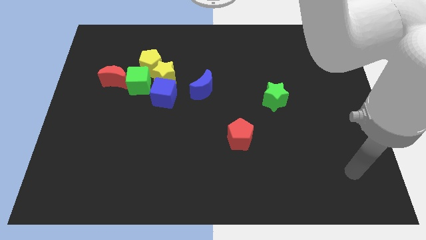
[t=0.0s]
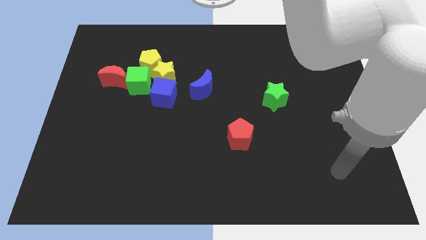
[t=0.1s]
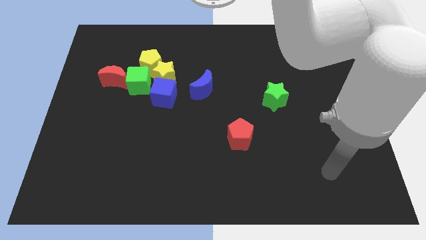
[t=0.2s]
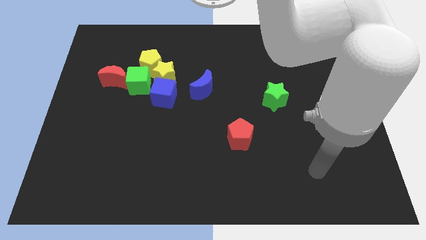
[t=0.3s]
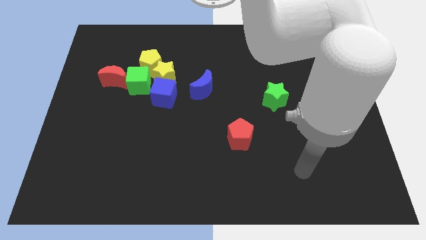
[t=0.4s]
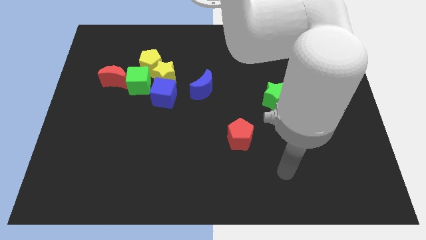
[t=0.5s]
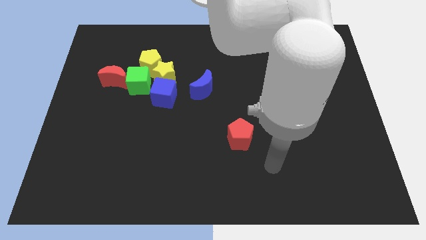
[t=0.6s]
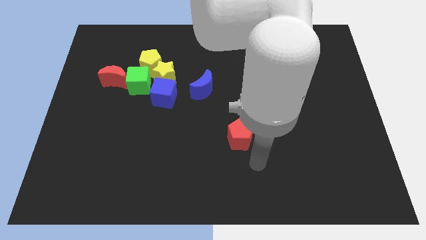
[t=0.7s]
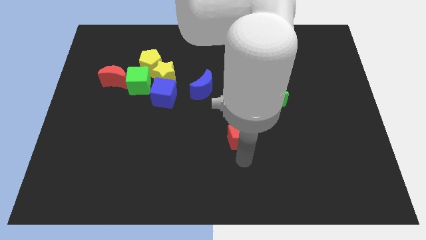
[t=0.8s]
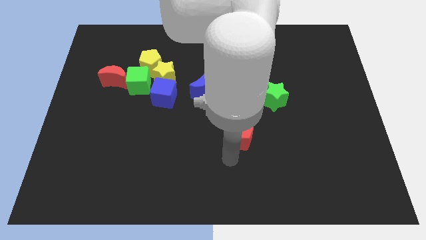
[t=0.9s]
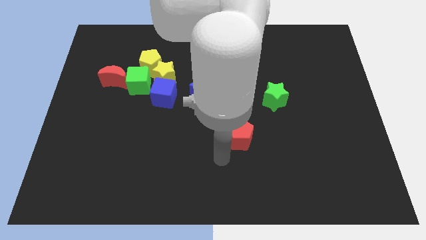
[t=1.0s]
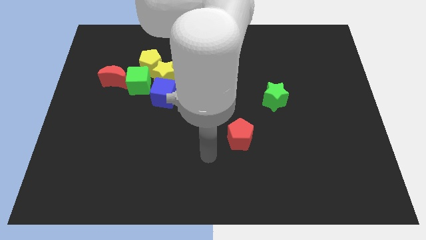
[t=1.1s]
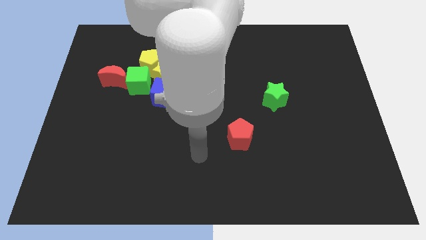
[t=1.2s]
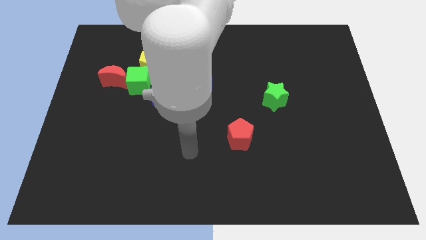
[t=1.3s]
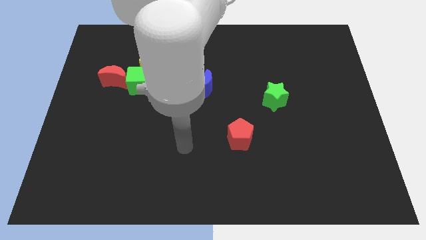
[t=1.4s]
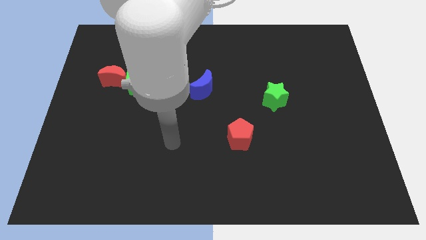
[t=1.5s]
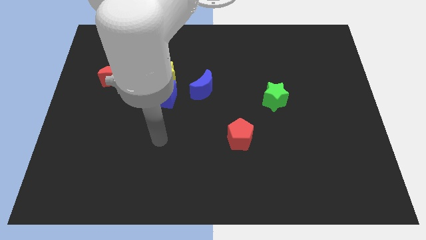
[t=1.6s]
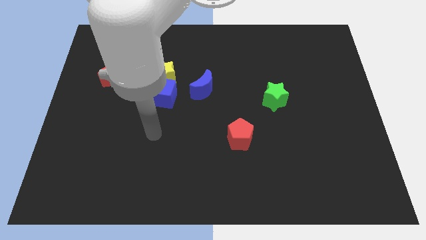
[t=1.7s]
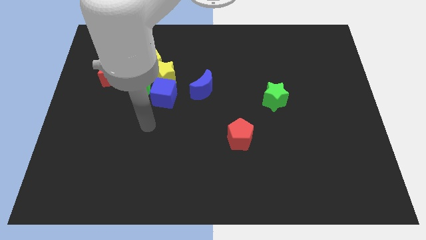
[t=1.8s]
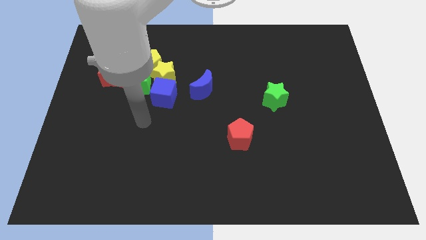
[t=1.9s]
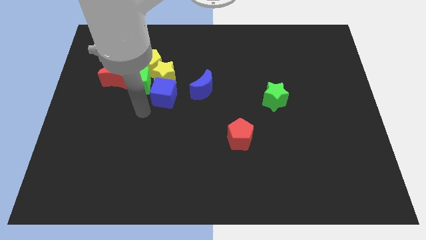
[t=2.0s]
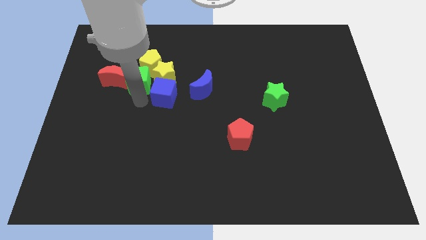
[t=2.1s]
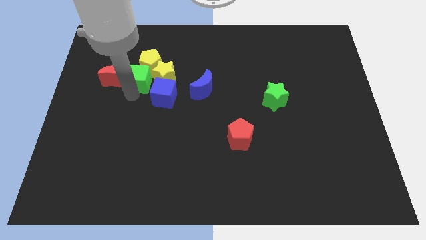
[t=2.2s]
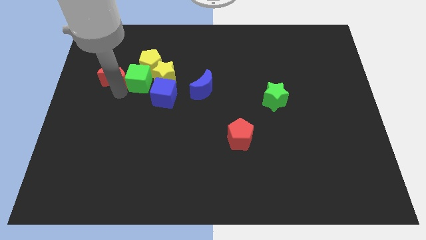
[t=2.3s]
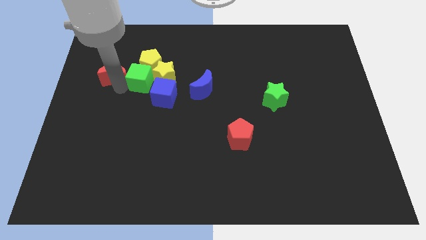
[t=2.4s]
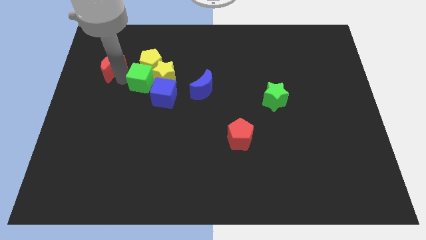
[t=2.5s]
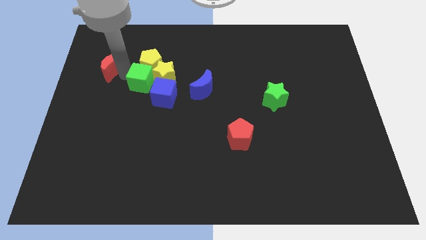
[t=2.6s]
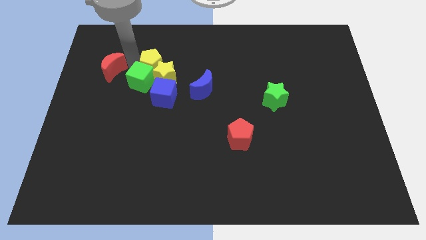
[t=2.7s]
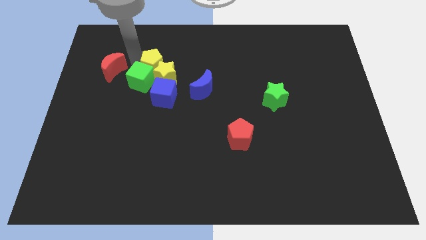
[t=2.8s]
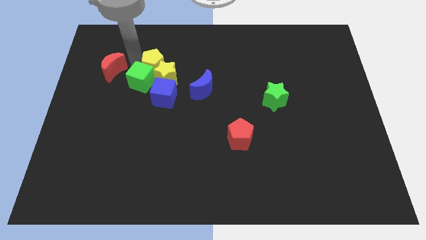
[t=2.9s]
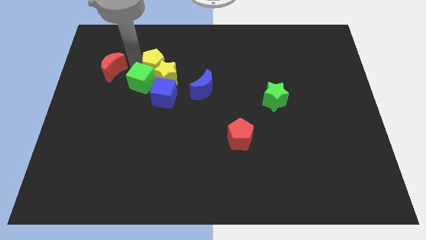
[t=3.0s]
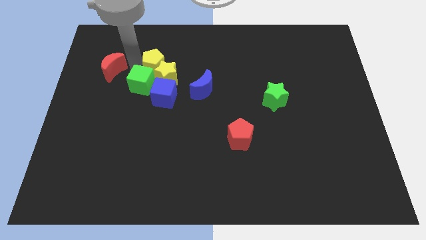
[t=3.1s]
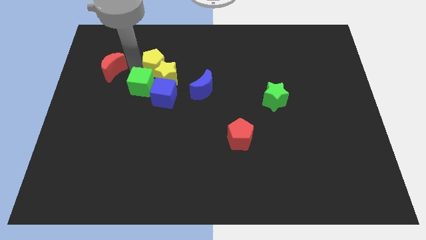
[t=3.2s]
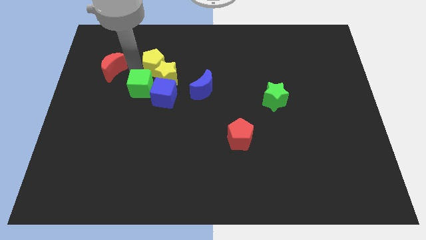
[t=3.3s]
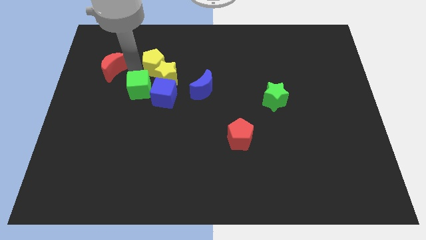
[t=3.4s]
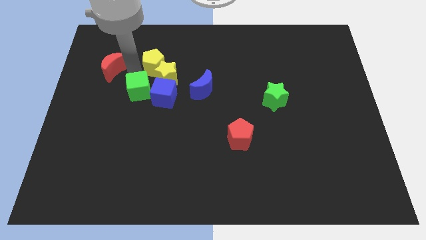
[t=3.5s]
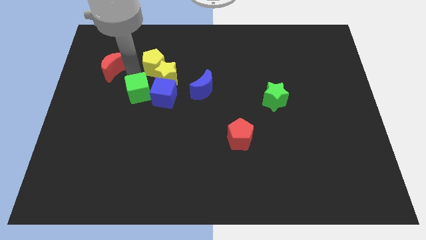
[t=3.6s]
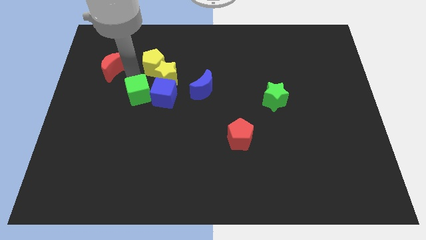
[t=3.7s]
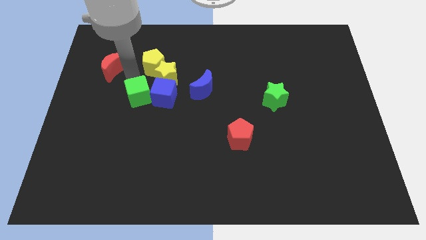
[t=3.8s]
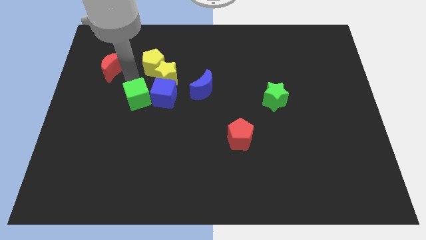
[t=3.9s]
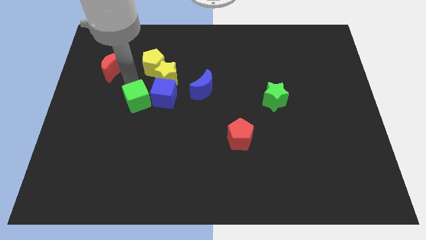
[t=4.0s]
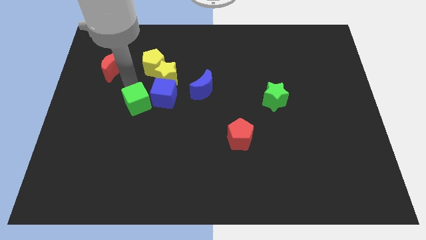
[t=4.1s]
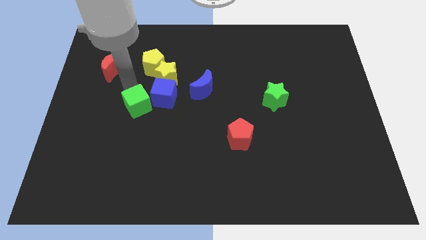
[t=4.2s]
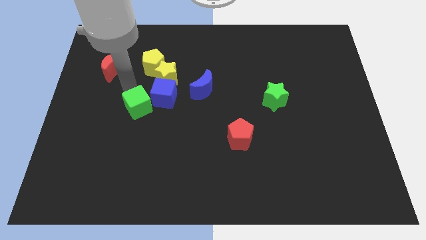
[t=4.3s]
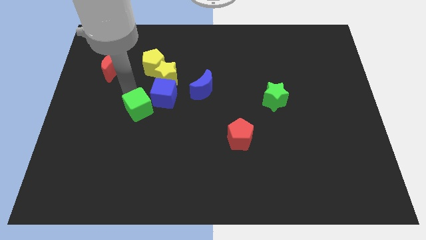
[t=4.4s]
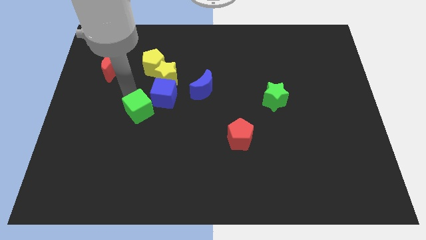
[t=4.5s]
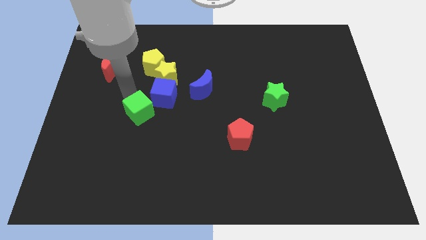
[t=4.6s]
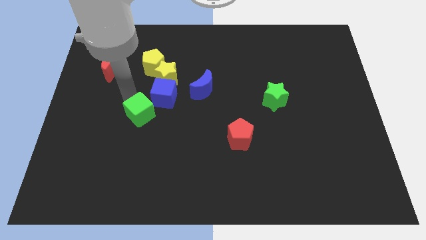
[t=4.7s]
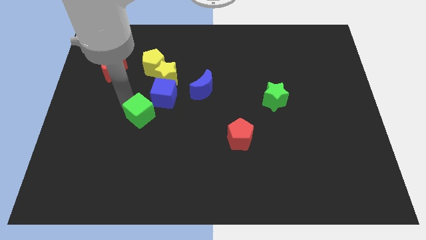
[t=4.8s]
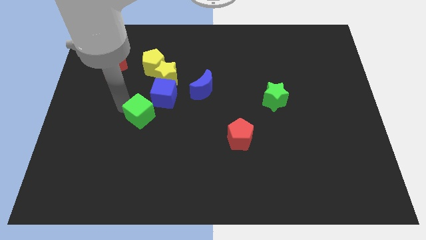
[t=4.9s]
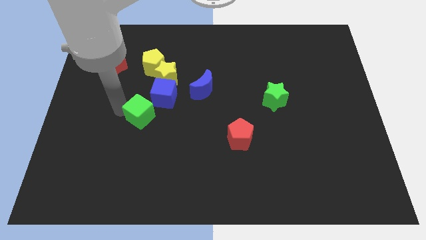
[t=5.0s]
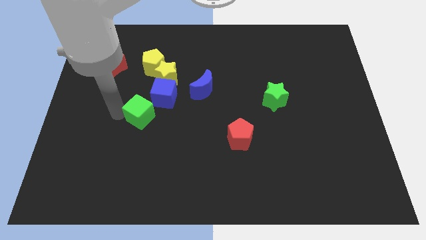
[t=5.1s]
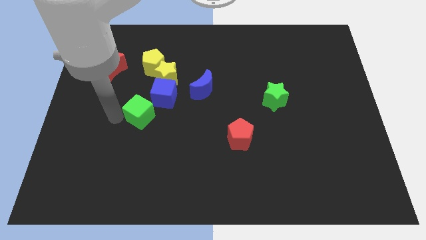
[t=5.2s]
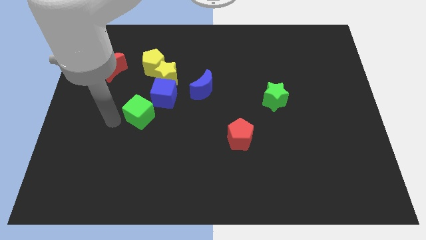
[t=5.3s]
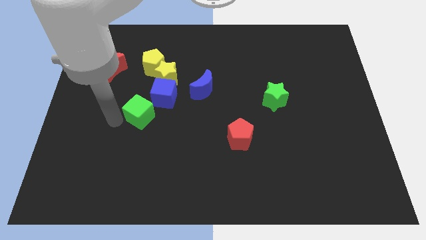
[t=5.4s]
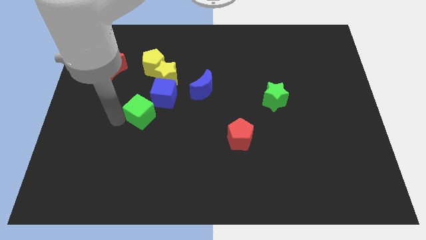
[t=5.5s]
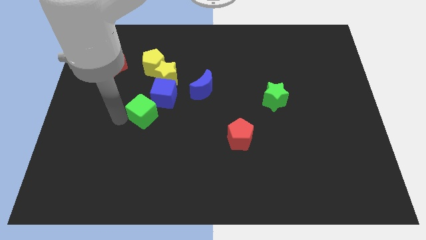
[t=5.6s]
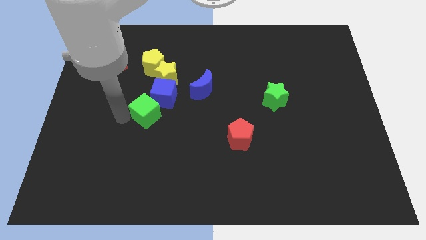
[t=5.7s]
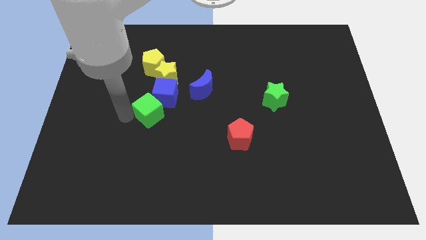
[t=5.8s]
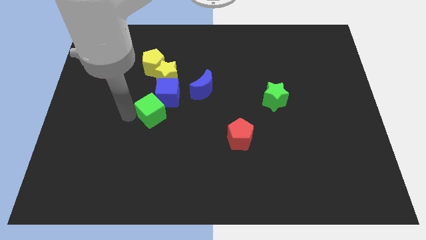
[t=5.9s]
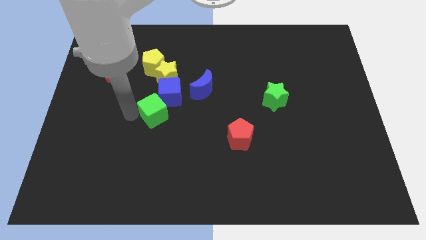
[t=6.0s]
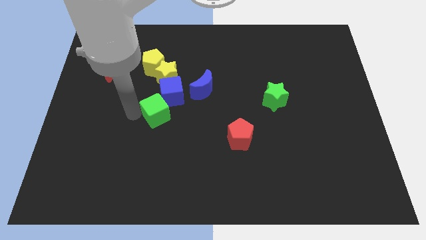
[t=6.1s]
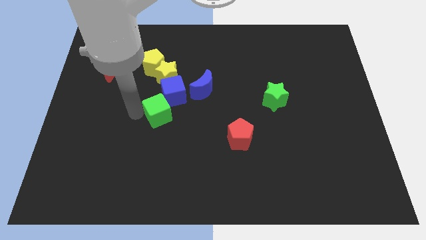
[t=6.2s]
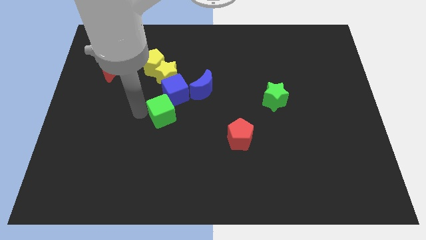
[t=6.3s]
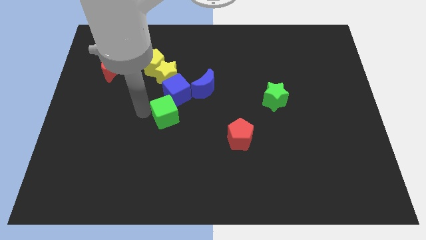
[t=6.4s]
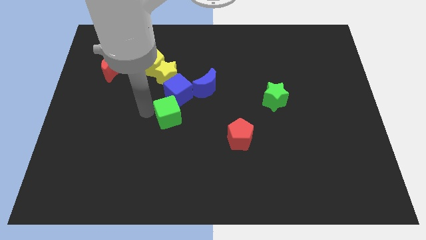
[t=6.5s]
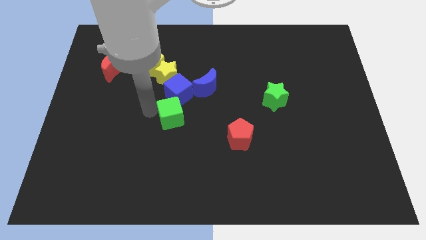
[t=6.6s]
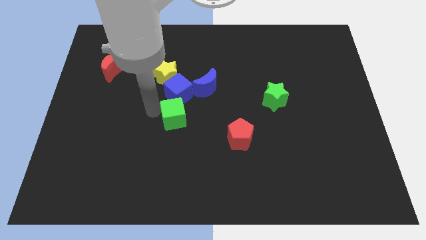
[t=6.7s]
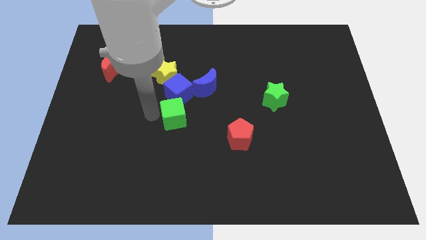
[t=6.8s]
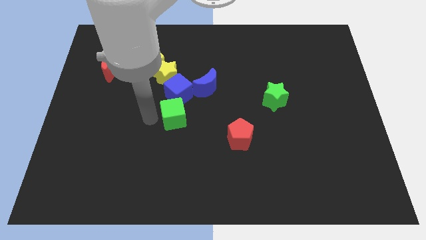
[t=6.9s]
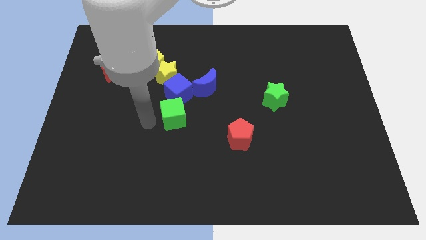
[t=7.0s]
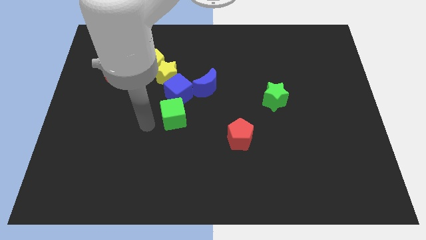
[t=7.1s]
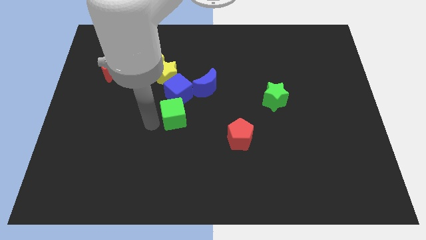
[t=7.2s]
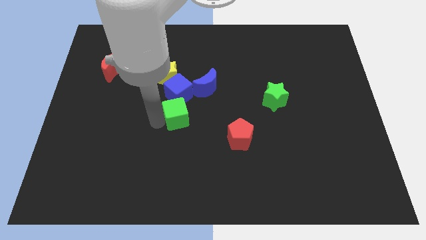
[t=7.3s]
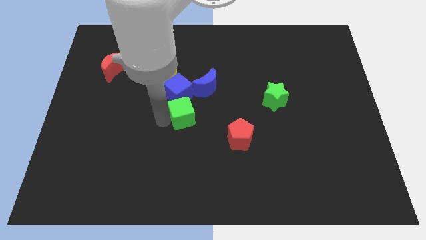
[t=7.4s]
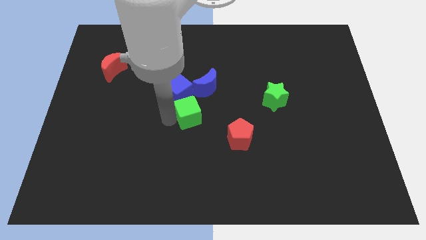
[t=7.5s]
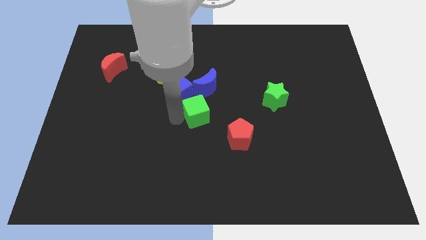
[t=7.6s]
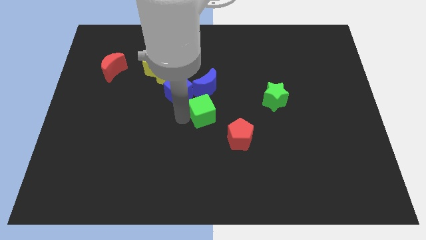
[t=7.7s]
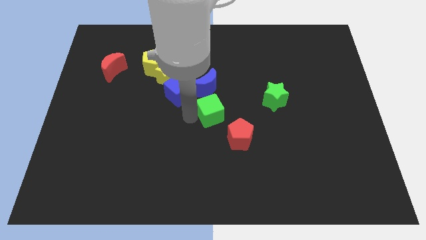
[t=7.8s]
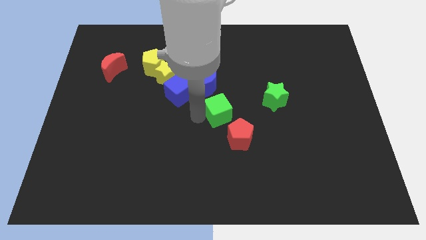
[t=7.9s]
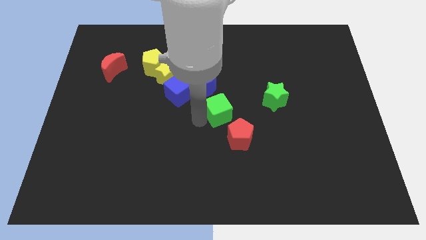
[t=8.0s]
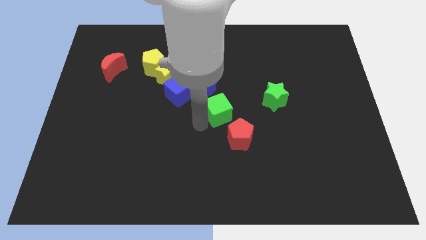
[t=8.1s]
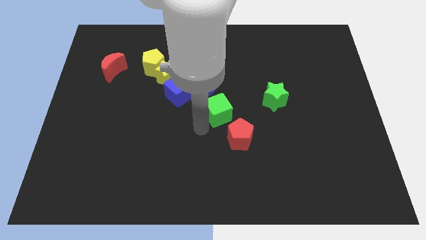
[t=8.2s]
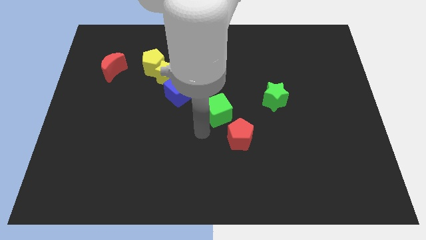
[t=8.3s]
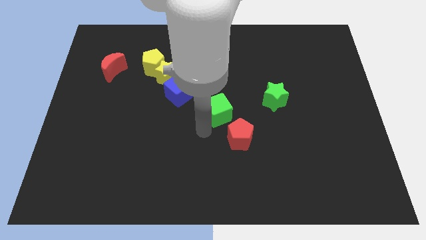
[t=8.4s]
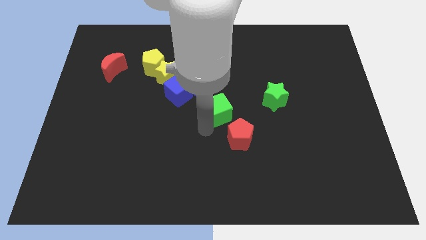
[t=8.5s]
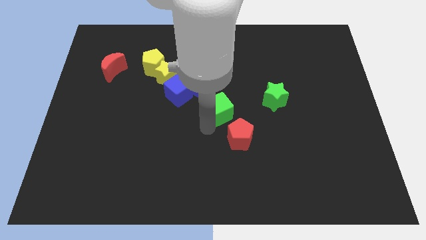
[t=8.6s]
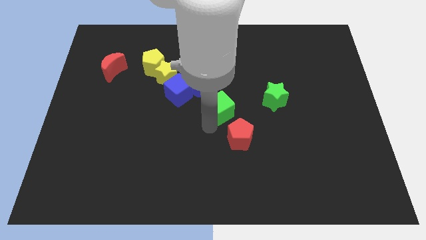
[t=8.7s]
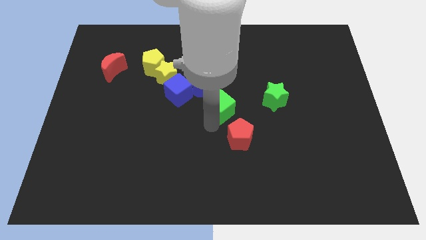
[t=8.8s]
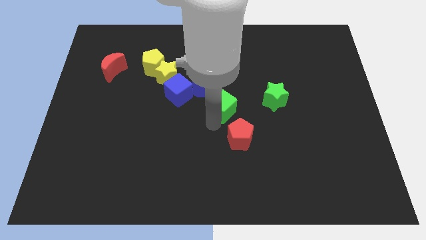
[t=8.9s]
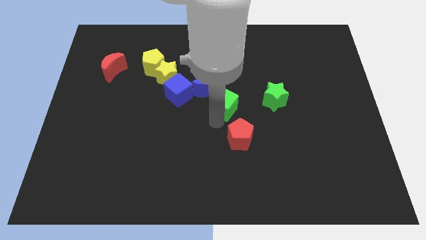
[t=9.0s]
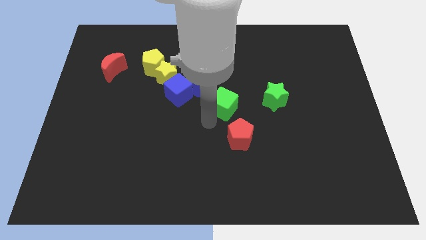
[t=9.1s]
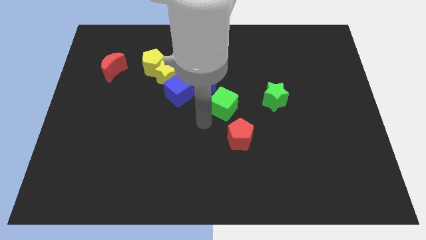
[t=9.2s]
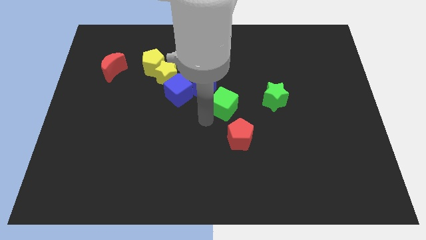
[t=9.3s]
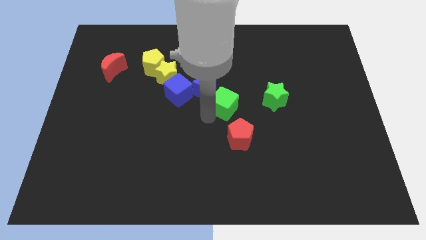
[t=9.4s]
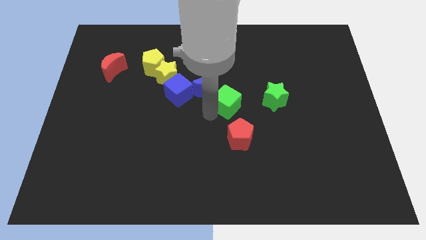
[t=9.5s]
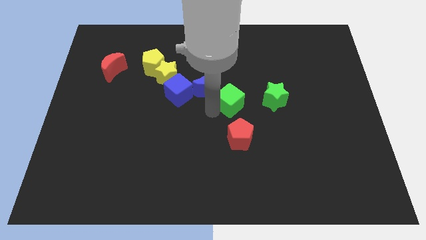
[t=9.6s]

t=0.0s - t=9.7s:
put the green cube right of the blue moon
